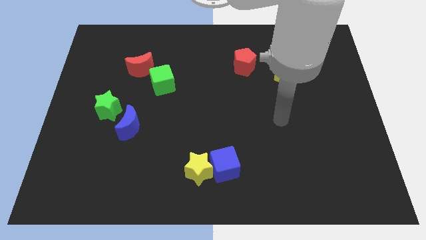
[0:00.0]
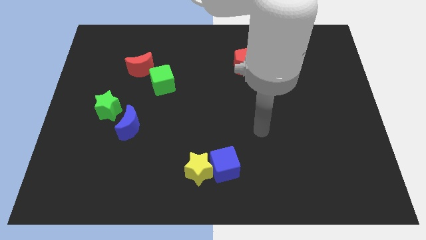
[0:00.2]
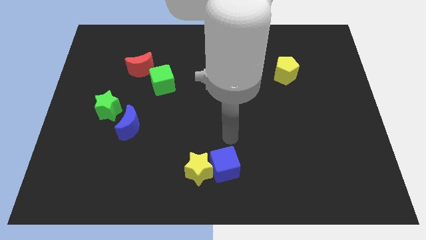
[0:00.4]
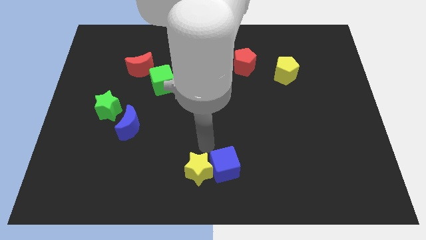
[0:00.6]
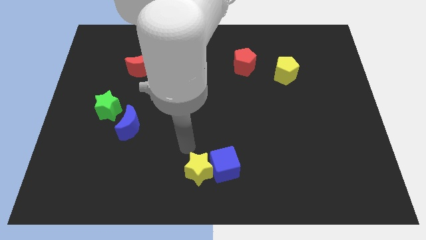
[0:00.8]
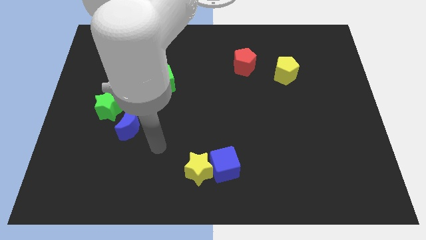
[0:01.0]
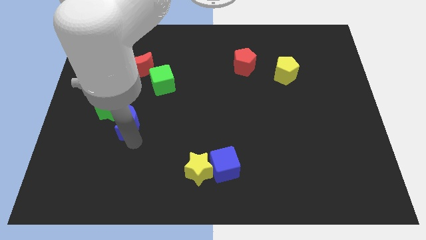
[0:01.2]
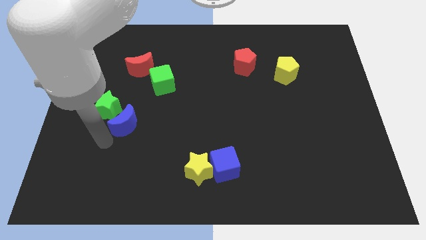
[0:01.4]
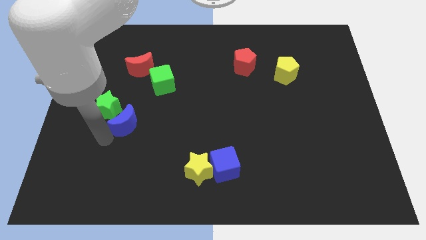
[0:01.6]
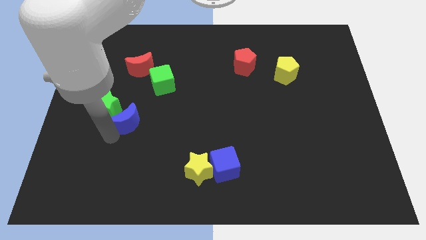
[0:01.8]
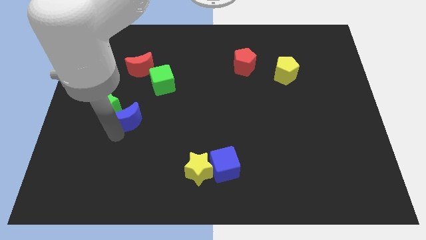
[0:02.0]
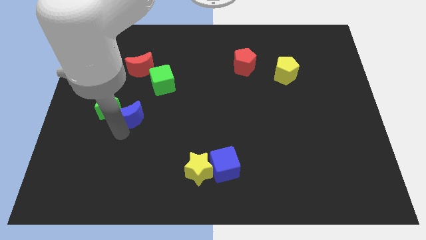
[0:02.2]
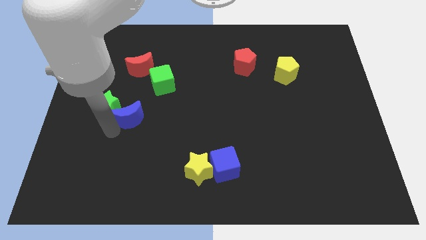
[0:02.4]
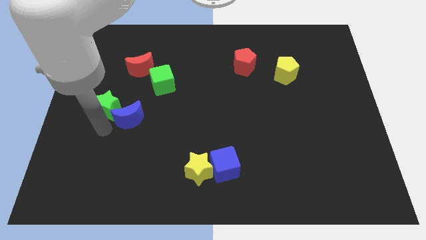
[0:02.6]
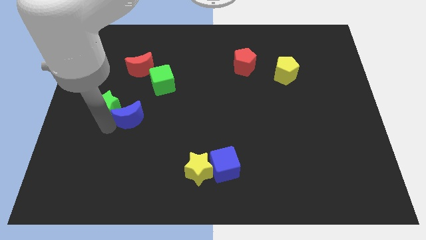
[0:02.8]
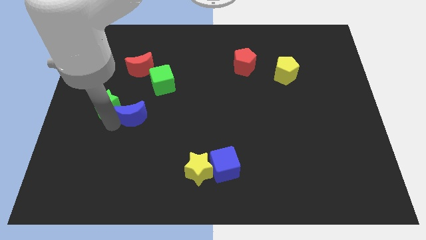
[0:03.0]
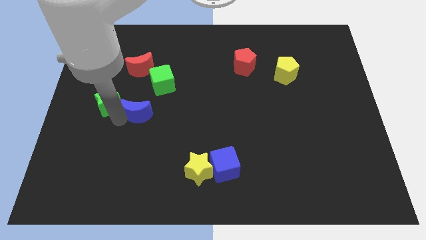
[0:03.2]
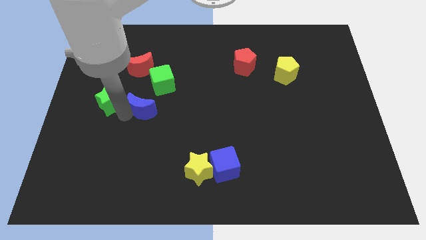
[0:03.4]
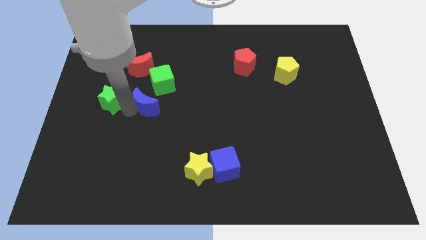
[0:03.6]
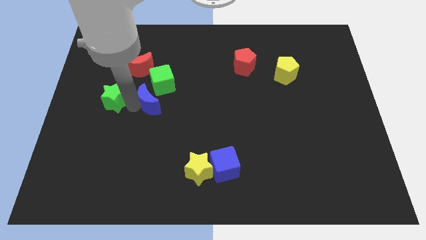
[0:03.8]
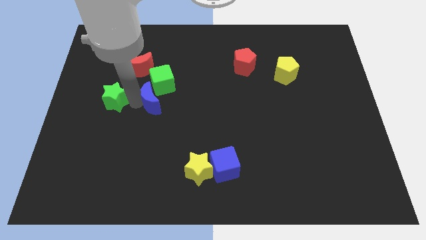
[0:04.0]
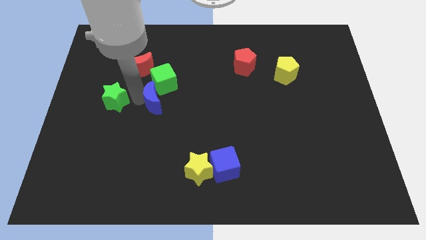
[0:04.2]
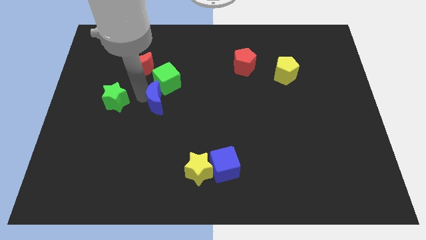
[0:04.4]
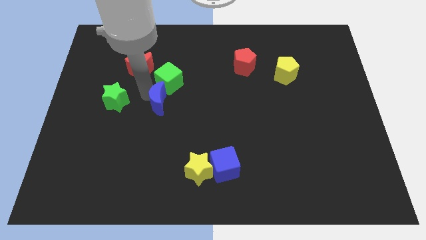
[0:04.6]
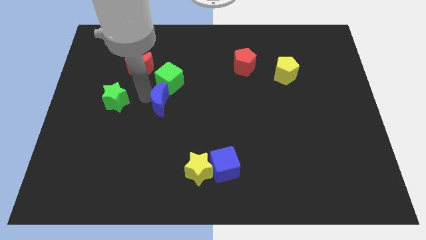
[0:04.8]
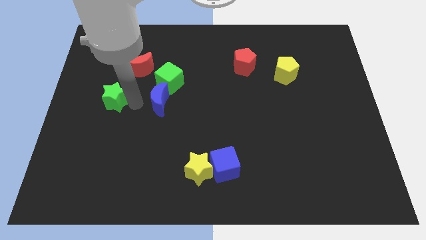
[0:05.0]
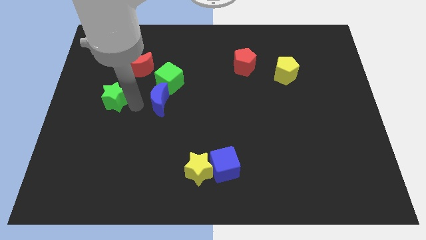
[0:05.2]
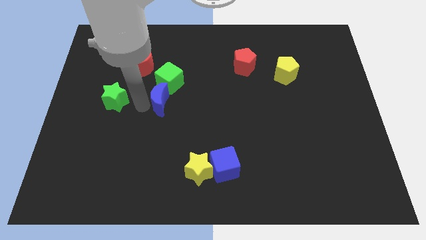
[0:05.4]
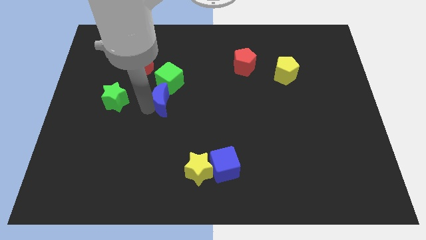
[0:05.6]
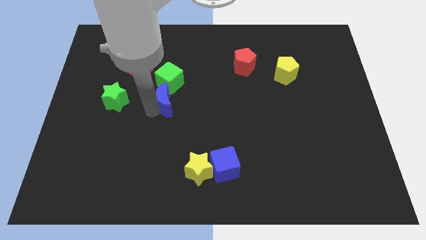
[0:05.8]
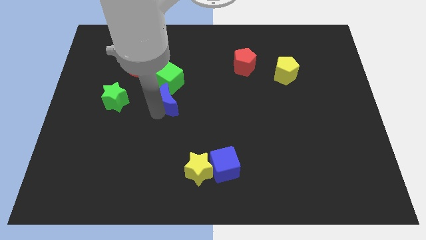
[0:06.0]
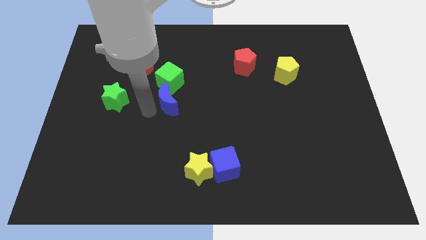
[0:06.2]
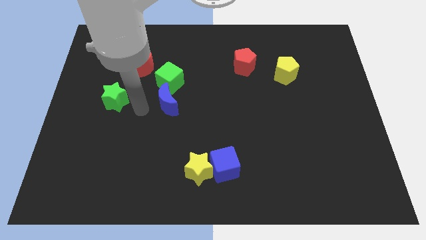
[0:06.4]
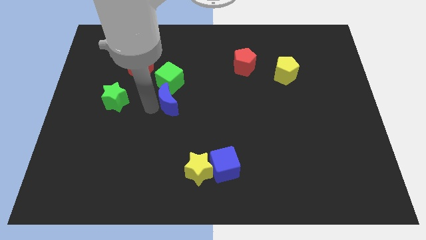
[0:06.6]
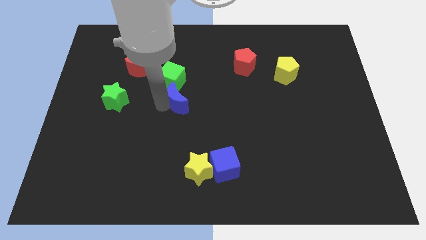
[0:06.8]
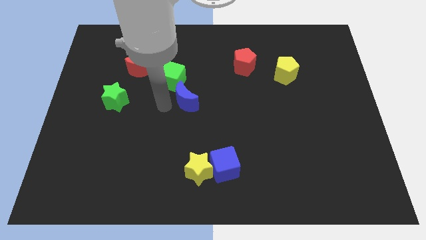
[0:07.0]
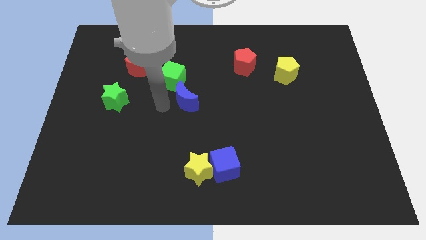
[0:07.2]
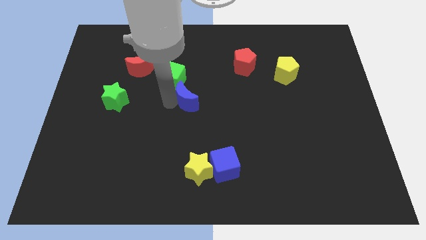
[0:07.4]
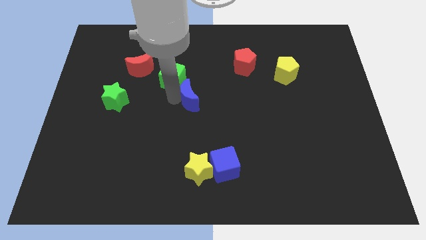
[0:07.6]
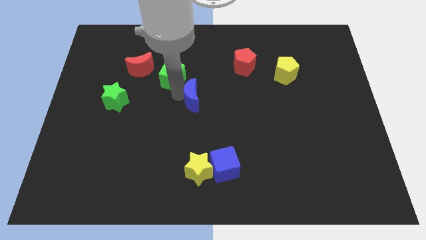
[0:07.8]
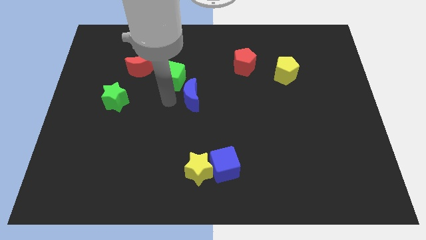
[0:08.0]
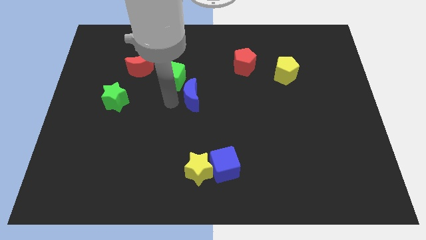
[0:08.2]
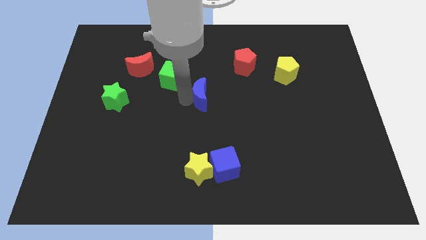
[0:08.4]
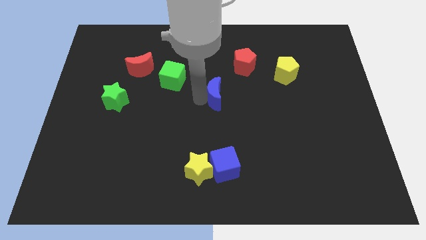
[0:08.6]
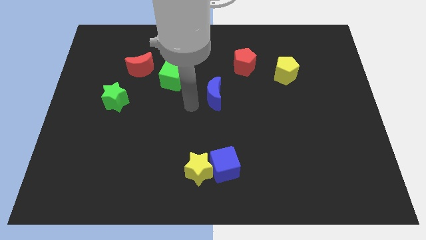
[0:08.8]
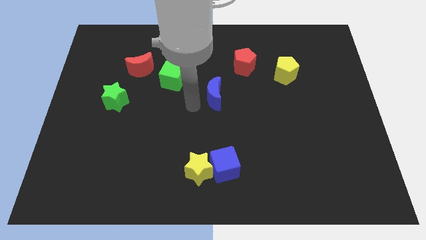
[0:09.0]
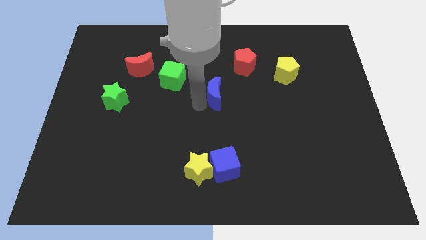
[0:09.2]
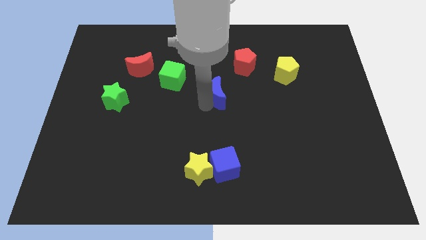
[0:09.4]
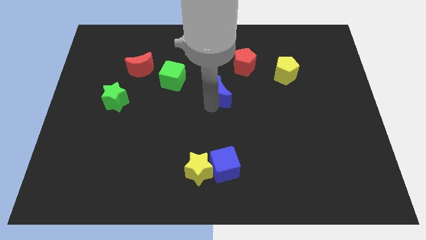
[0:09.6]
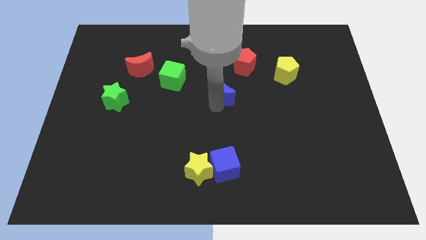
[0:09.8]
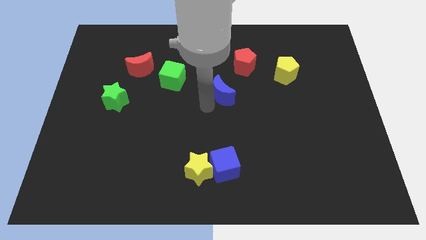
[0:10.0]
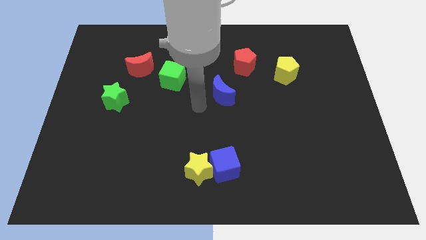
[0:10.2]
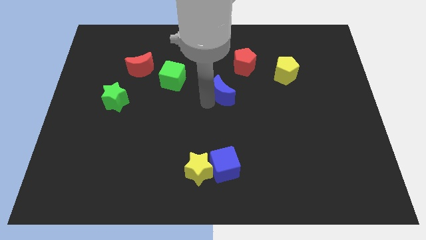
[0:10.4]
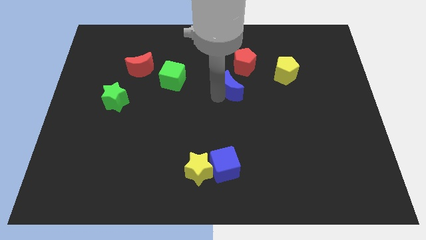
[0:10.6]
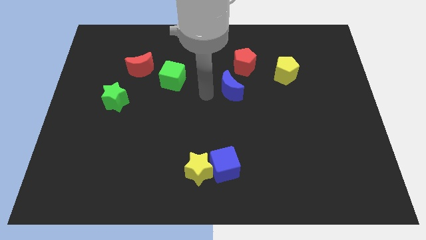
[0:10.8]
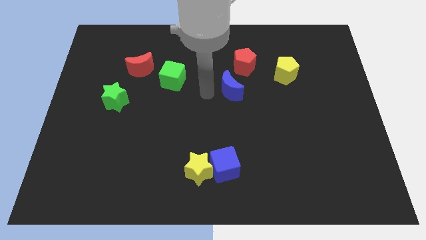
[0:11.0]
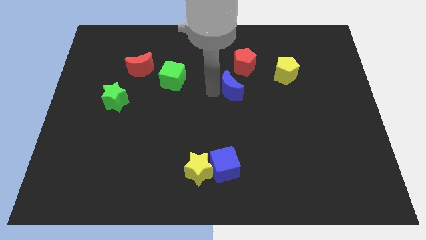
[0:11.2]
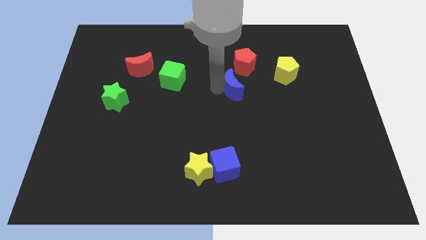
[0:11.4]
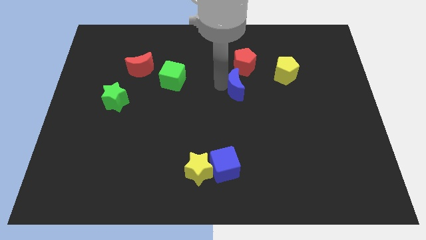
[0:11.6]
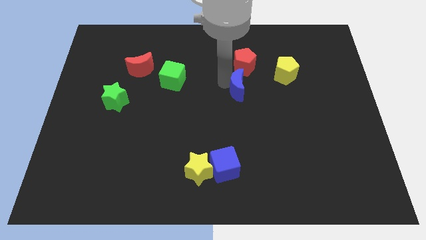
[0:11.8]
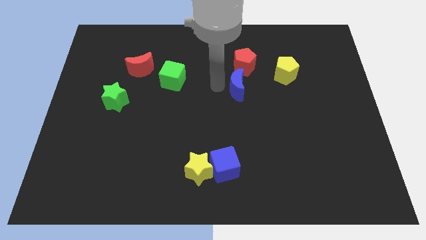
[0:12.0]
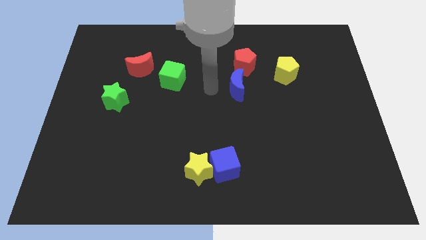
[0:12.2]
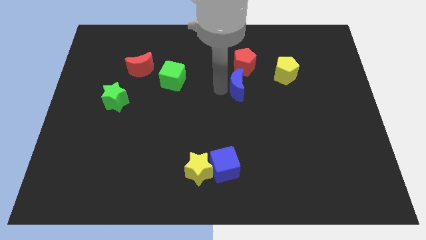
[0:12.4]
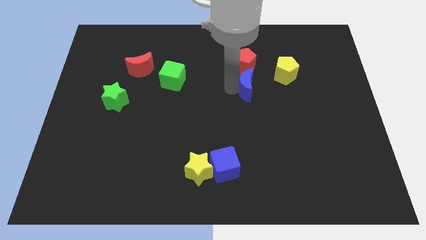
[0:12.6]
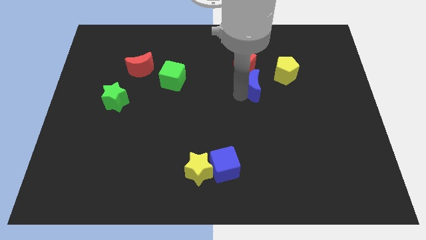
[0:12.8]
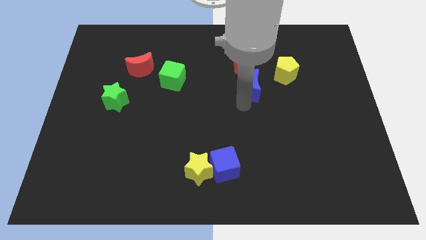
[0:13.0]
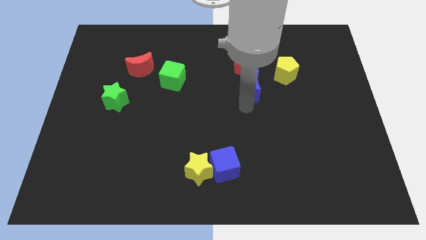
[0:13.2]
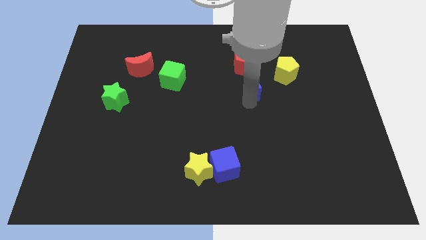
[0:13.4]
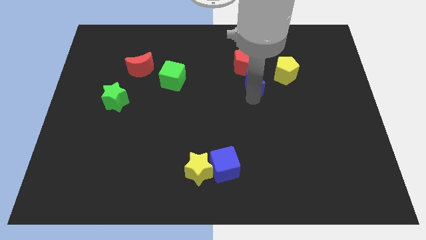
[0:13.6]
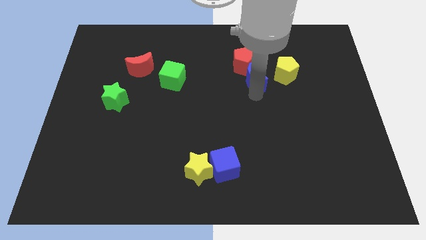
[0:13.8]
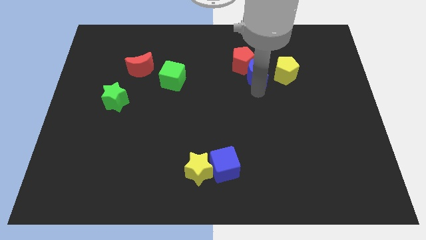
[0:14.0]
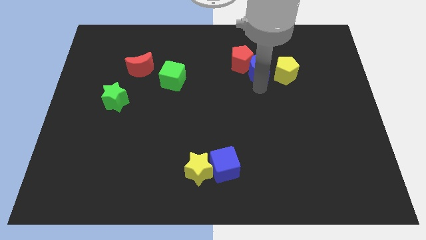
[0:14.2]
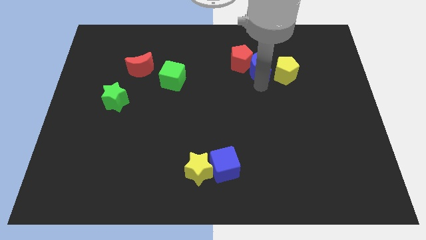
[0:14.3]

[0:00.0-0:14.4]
put the blue moon diagonally up and to the left of the yellow pentagon
